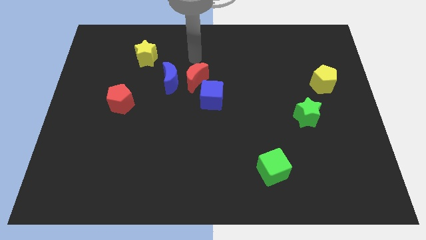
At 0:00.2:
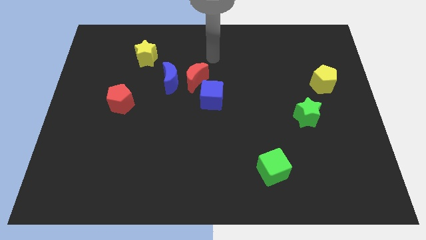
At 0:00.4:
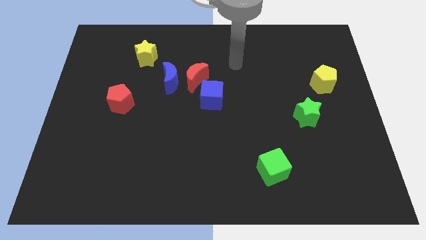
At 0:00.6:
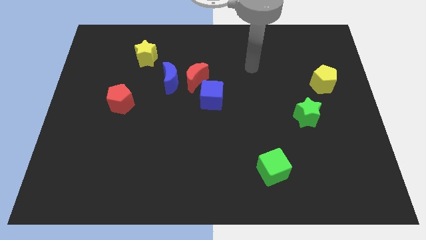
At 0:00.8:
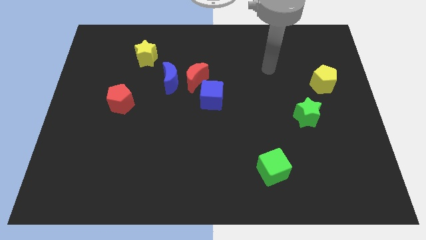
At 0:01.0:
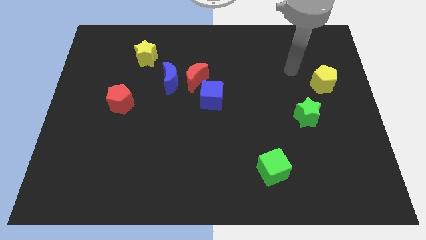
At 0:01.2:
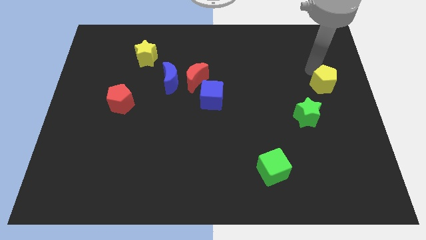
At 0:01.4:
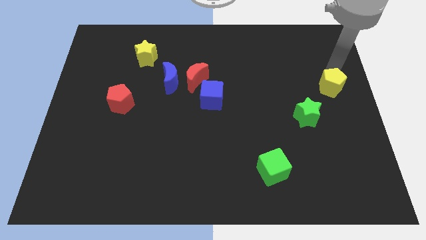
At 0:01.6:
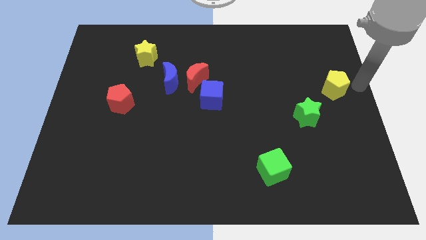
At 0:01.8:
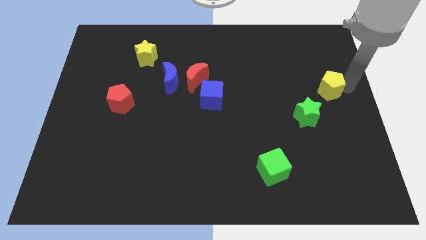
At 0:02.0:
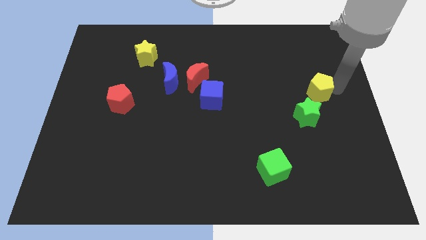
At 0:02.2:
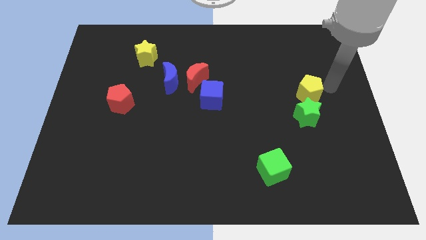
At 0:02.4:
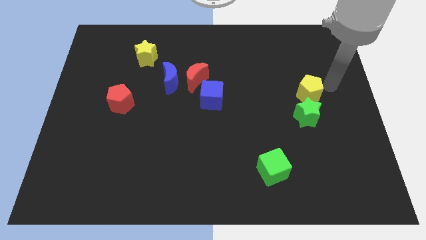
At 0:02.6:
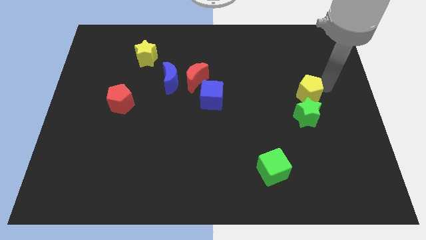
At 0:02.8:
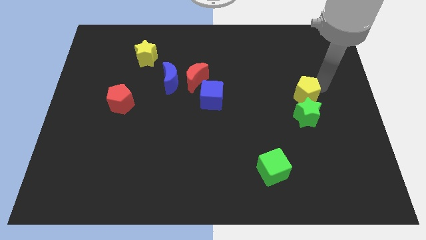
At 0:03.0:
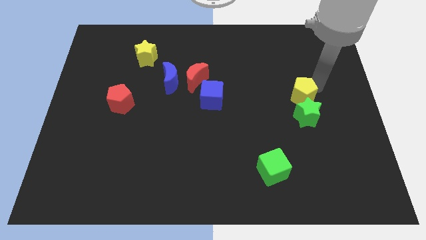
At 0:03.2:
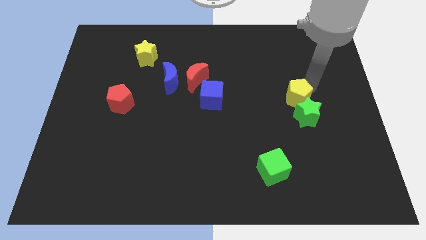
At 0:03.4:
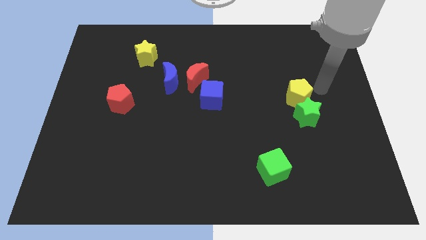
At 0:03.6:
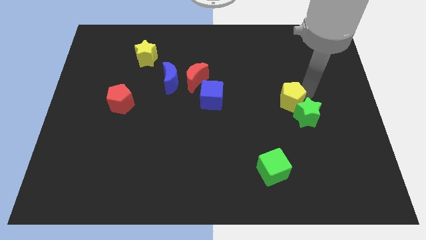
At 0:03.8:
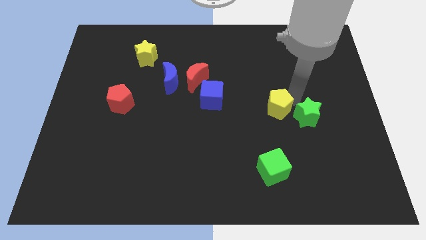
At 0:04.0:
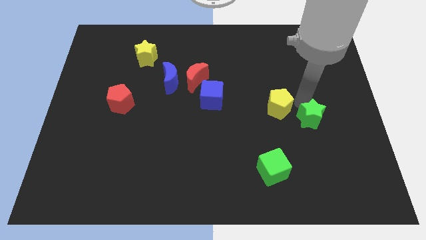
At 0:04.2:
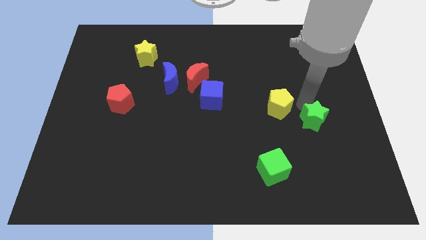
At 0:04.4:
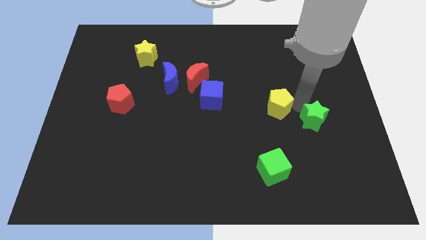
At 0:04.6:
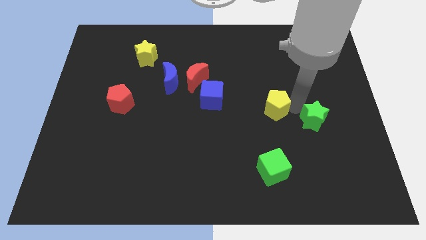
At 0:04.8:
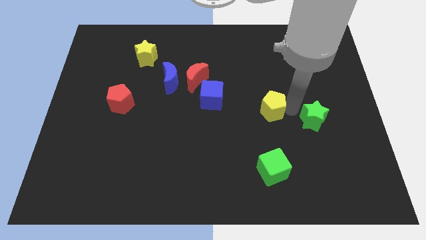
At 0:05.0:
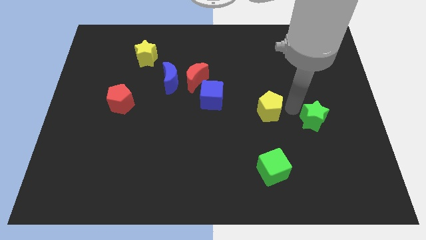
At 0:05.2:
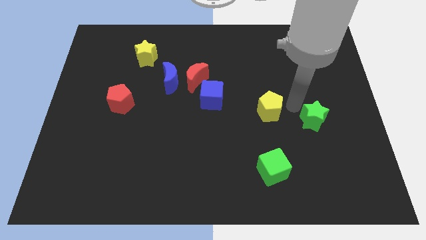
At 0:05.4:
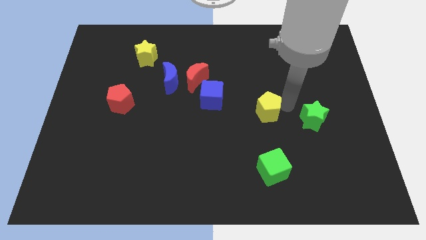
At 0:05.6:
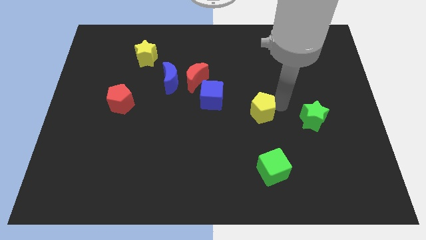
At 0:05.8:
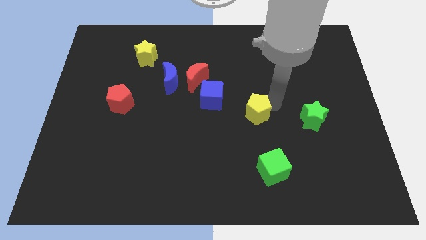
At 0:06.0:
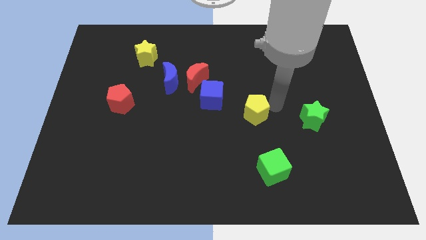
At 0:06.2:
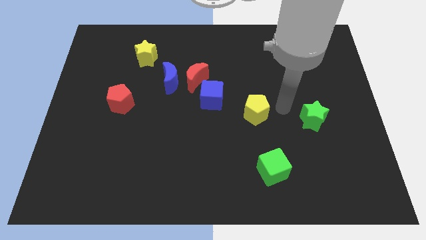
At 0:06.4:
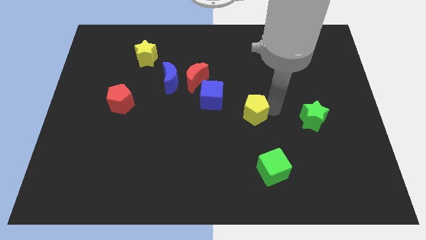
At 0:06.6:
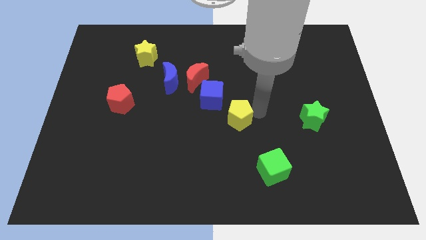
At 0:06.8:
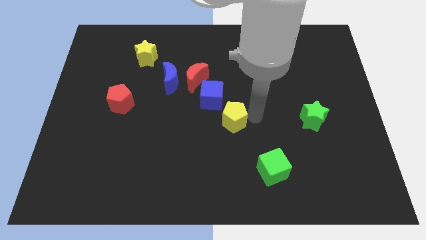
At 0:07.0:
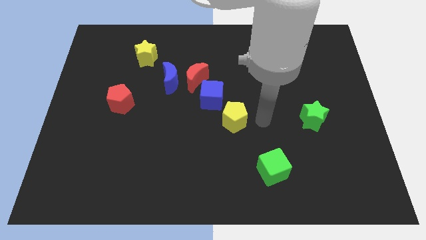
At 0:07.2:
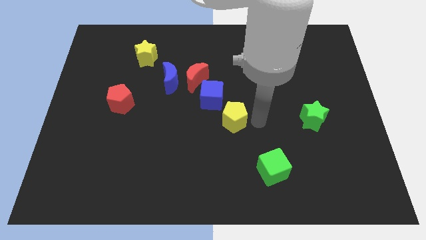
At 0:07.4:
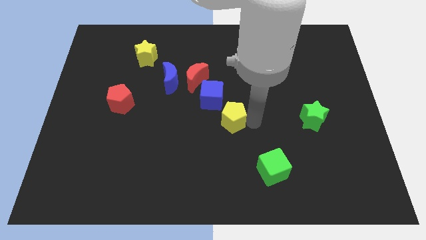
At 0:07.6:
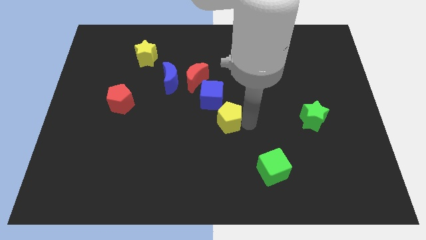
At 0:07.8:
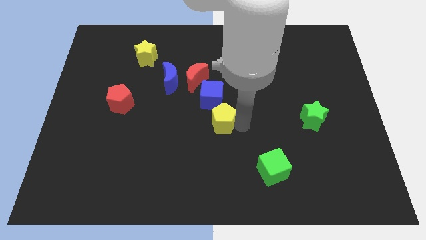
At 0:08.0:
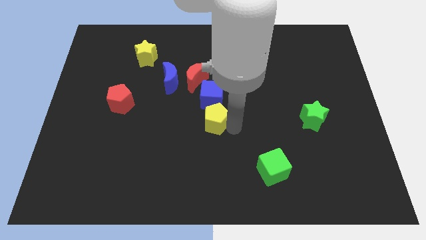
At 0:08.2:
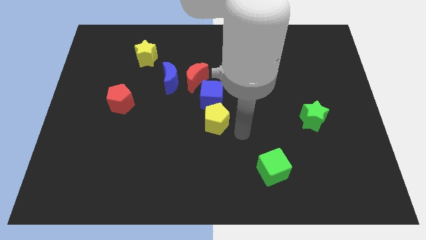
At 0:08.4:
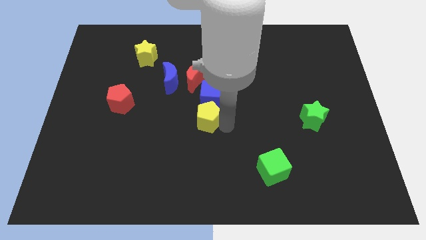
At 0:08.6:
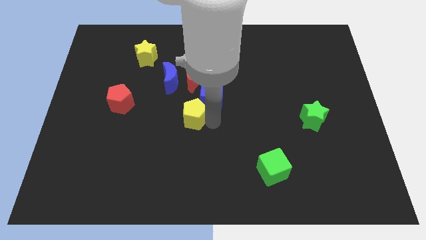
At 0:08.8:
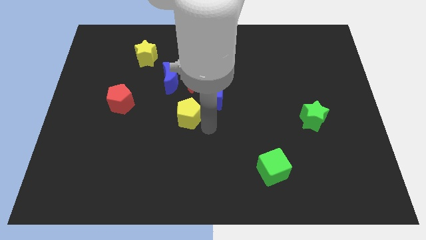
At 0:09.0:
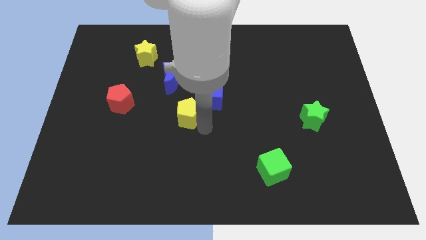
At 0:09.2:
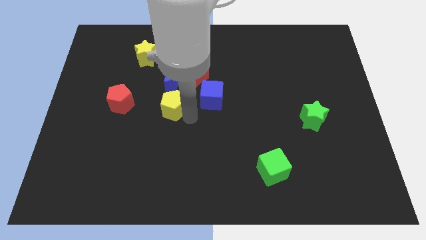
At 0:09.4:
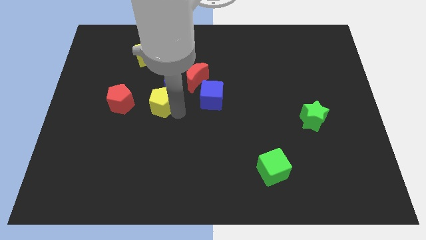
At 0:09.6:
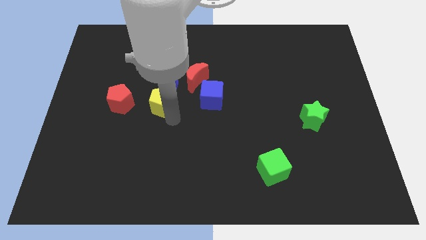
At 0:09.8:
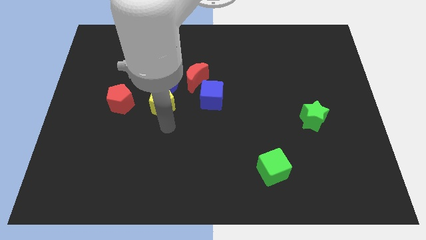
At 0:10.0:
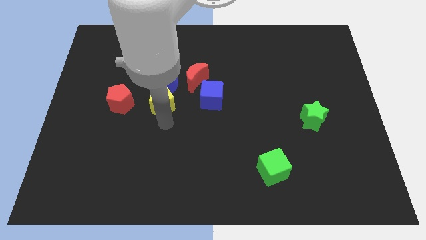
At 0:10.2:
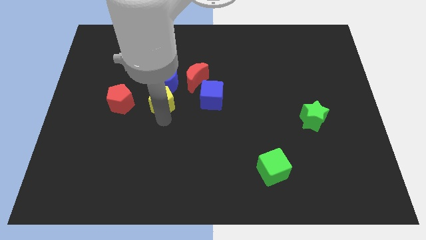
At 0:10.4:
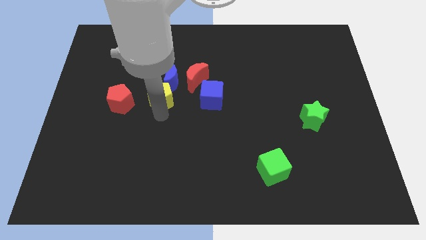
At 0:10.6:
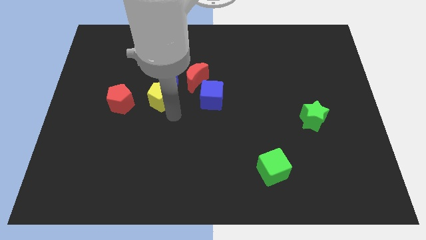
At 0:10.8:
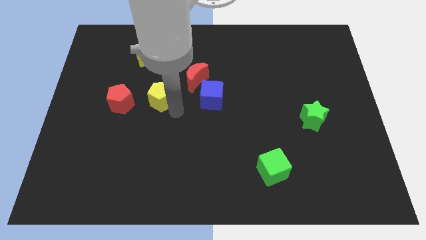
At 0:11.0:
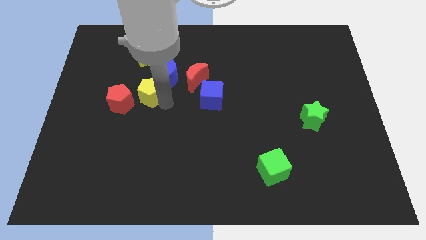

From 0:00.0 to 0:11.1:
push the yellow pentagon to the top right of the red pentagon

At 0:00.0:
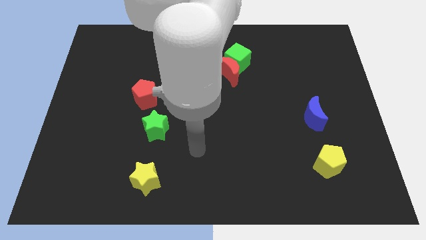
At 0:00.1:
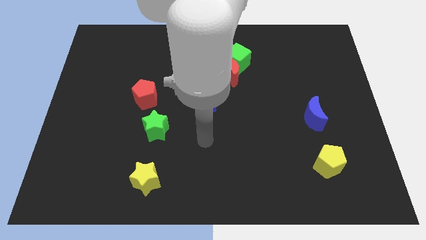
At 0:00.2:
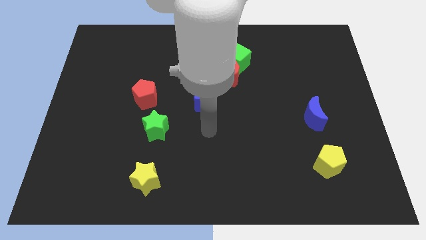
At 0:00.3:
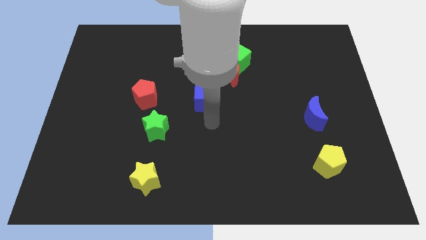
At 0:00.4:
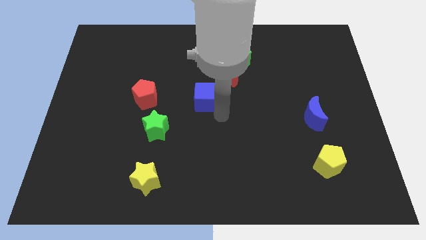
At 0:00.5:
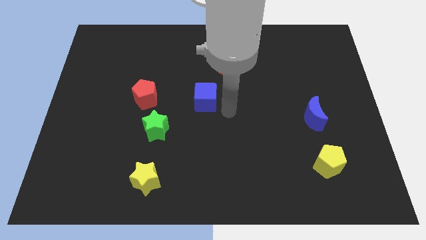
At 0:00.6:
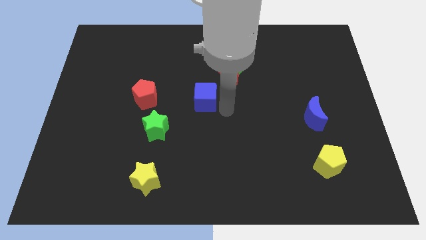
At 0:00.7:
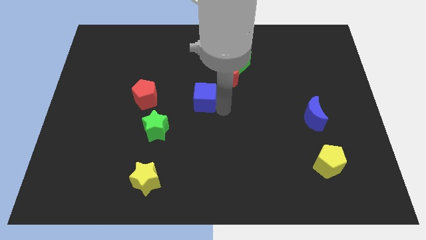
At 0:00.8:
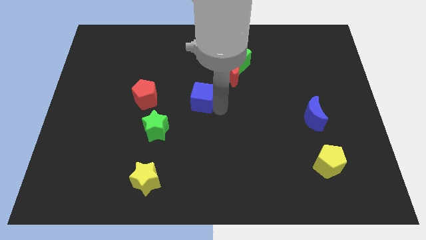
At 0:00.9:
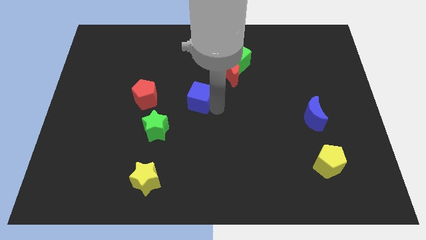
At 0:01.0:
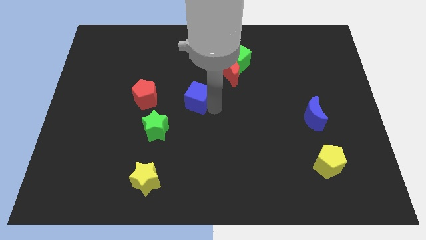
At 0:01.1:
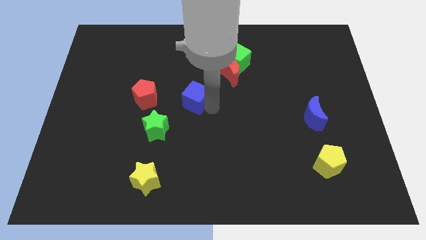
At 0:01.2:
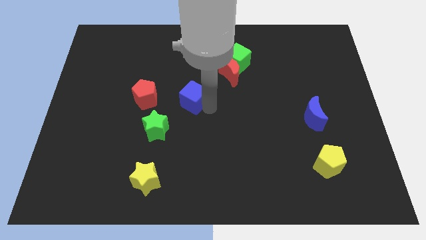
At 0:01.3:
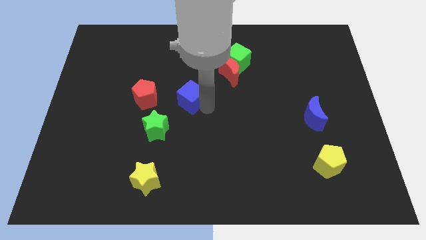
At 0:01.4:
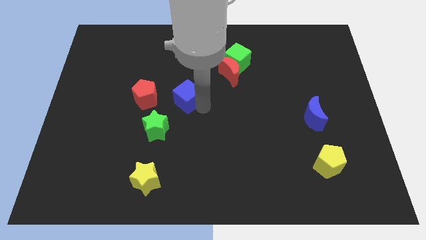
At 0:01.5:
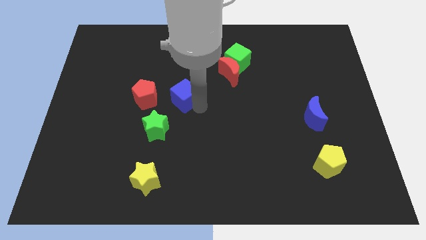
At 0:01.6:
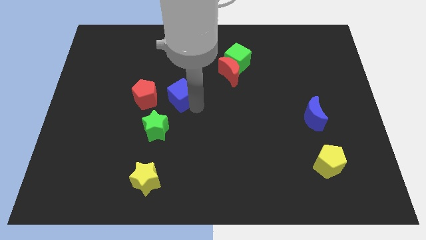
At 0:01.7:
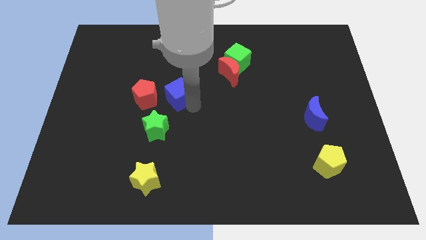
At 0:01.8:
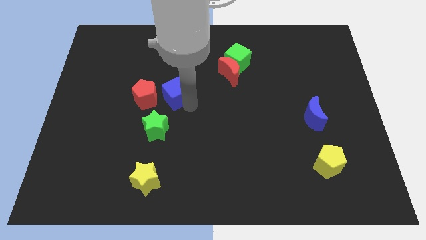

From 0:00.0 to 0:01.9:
move the blue cube to the top right of the red pentagon
